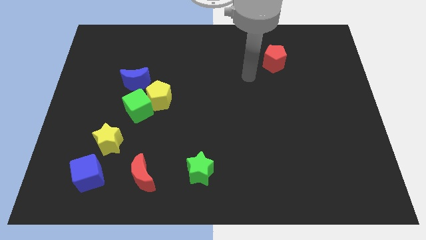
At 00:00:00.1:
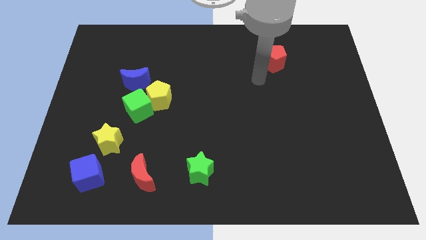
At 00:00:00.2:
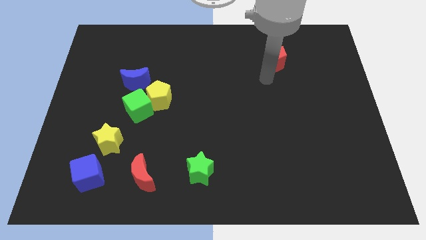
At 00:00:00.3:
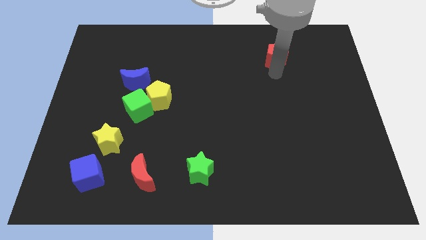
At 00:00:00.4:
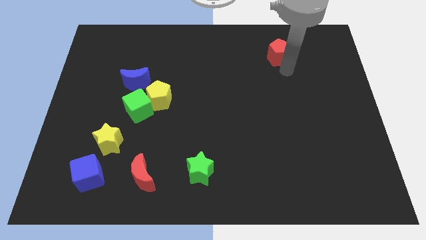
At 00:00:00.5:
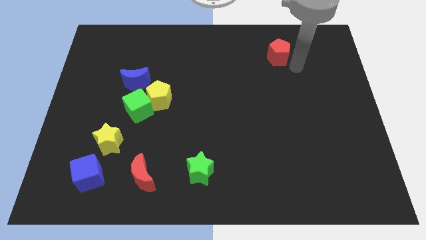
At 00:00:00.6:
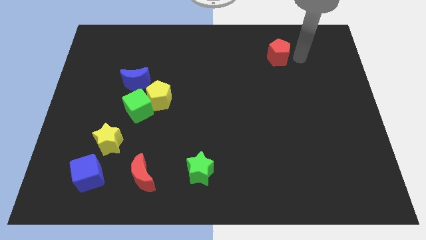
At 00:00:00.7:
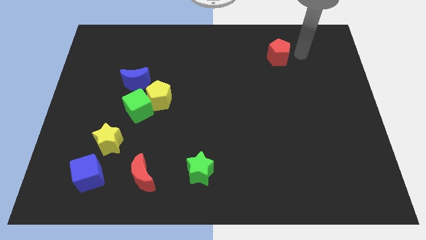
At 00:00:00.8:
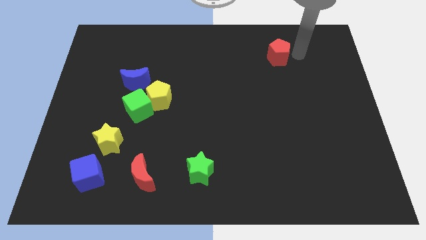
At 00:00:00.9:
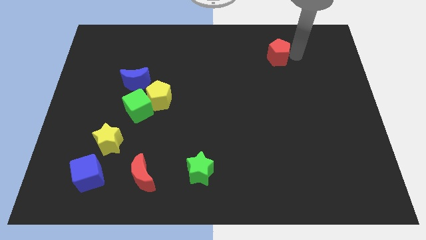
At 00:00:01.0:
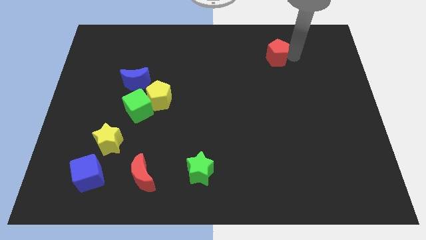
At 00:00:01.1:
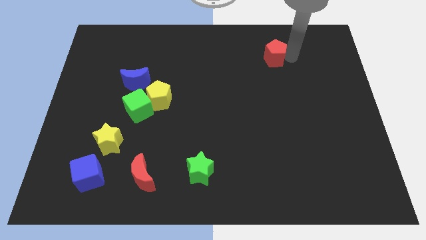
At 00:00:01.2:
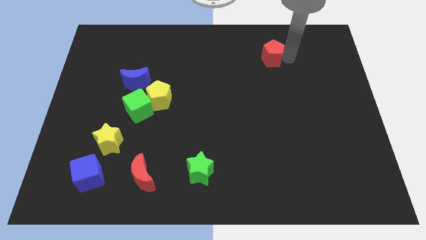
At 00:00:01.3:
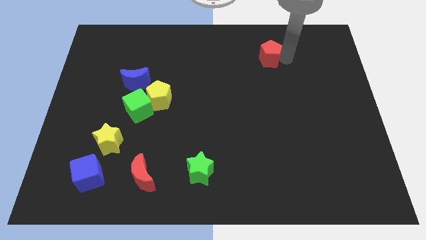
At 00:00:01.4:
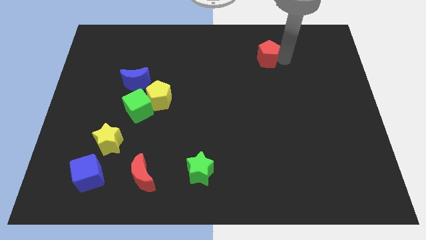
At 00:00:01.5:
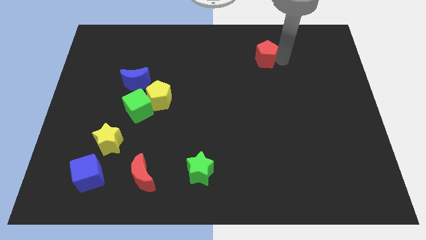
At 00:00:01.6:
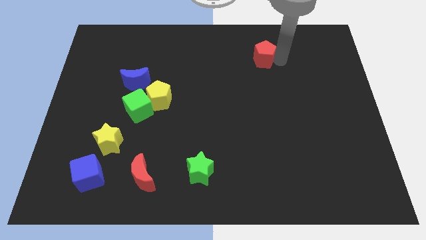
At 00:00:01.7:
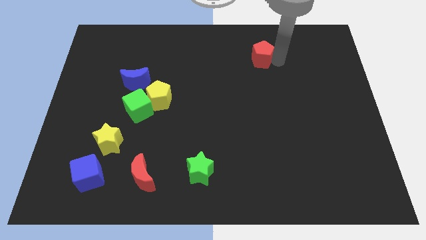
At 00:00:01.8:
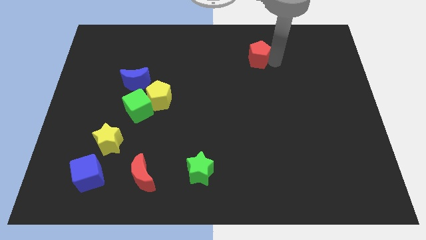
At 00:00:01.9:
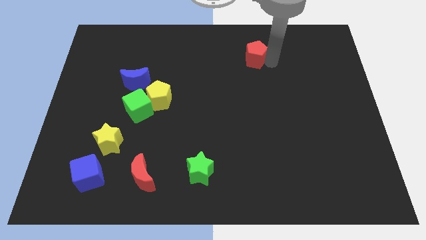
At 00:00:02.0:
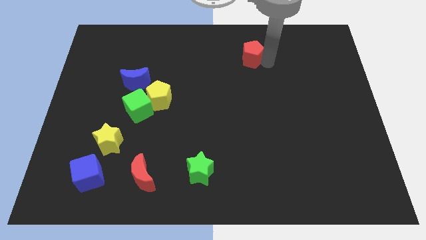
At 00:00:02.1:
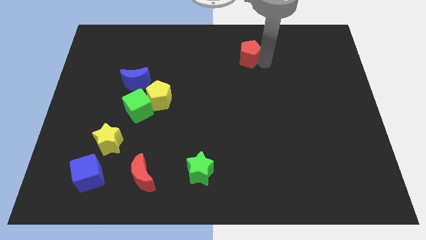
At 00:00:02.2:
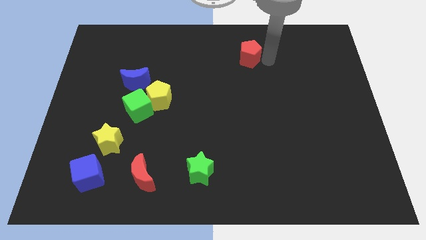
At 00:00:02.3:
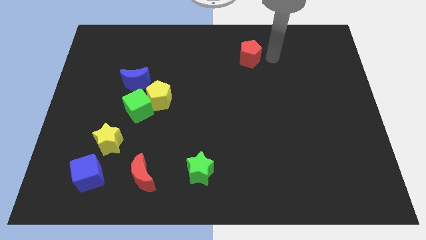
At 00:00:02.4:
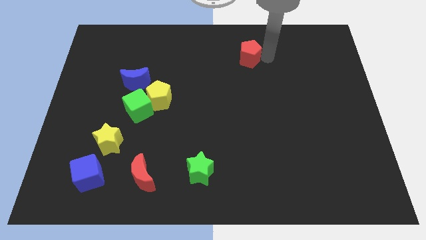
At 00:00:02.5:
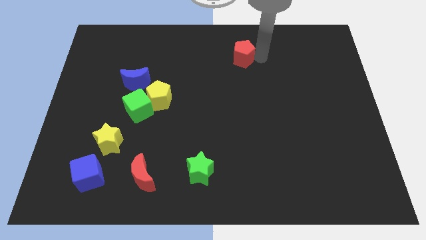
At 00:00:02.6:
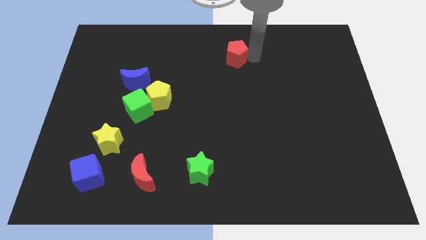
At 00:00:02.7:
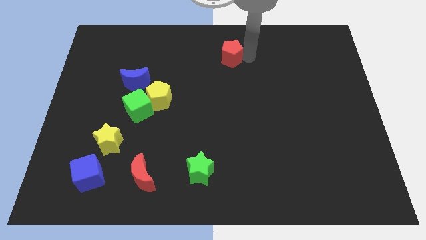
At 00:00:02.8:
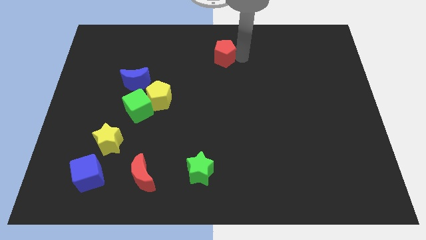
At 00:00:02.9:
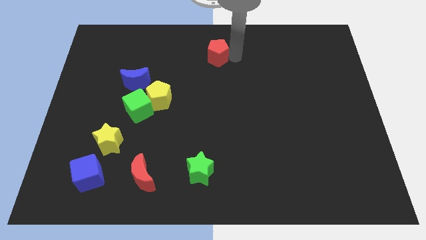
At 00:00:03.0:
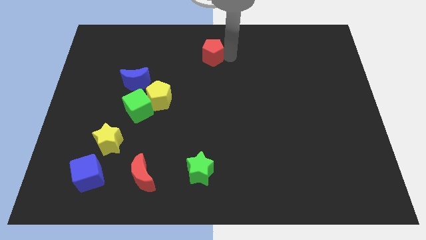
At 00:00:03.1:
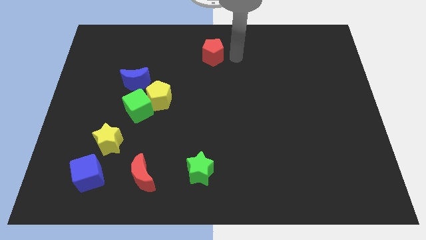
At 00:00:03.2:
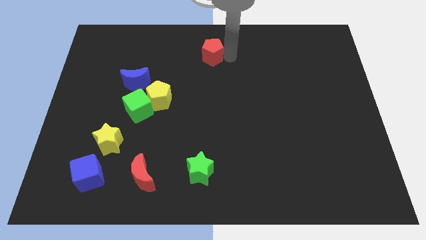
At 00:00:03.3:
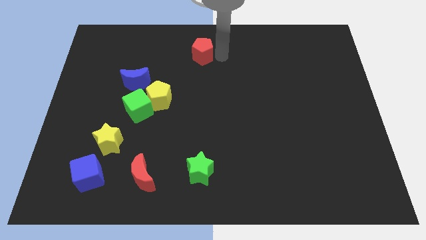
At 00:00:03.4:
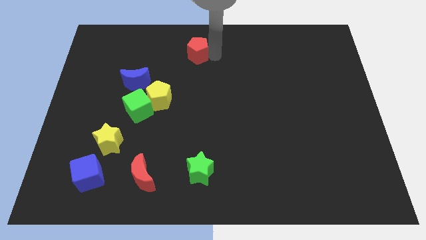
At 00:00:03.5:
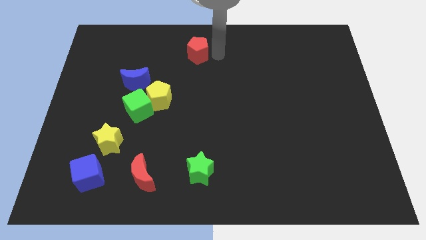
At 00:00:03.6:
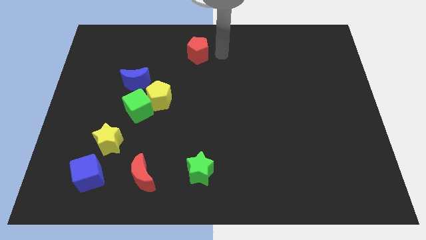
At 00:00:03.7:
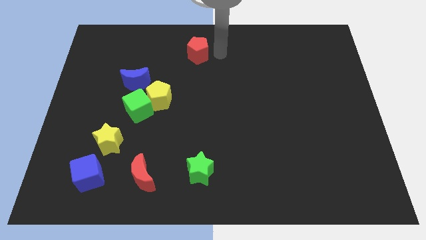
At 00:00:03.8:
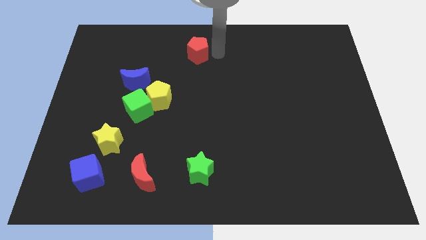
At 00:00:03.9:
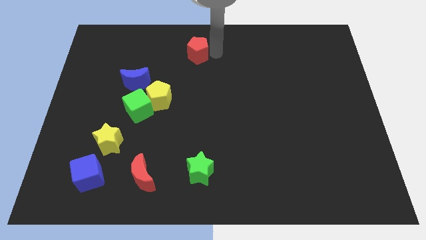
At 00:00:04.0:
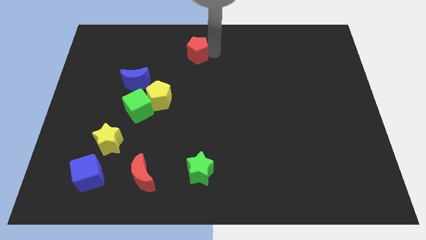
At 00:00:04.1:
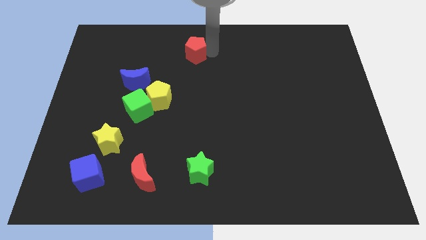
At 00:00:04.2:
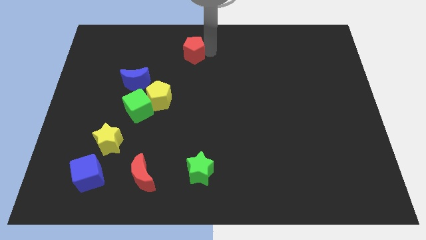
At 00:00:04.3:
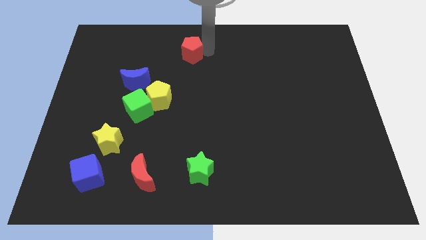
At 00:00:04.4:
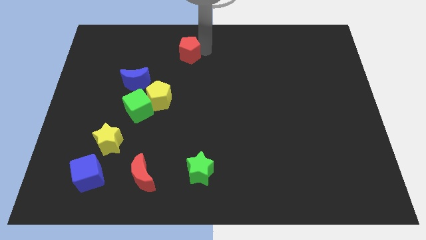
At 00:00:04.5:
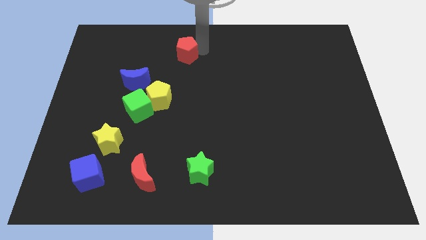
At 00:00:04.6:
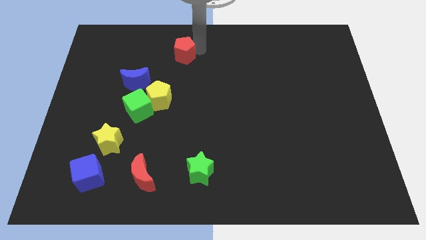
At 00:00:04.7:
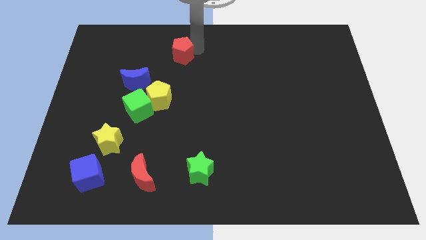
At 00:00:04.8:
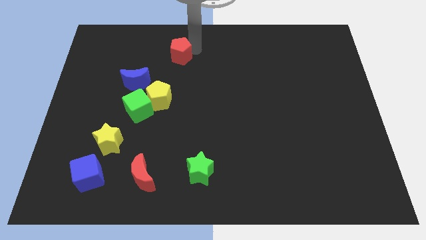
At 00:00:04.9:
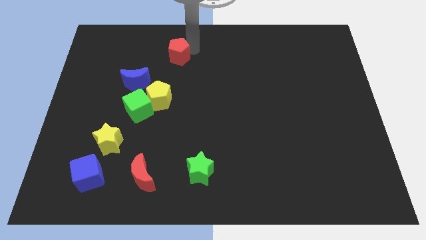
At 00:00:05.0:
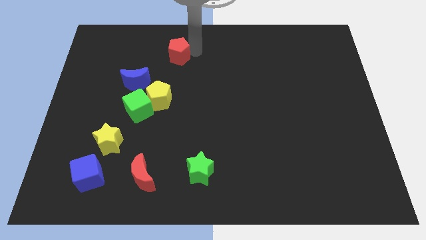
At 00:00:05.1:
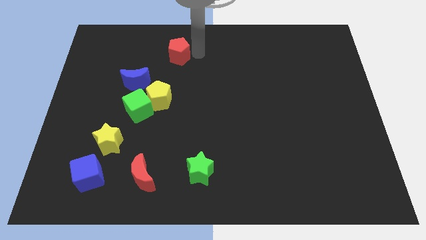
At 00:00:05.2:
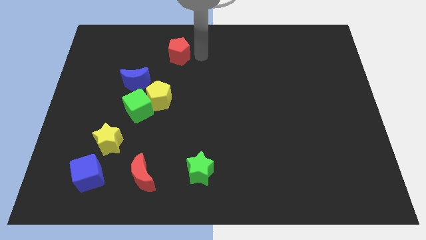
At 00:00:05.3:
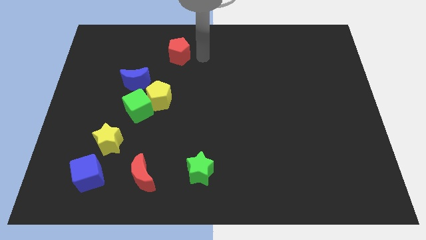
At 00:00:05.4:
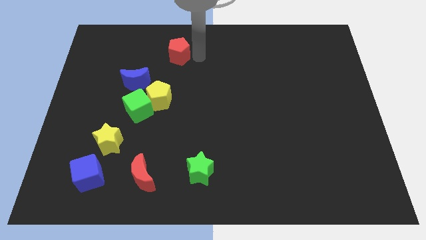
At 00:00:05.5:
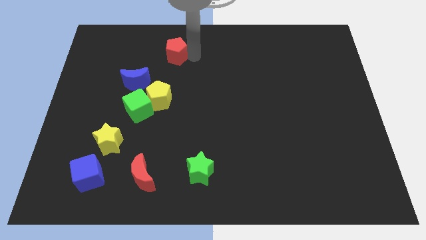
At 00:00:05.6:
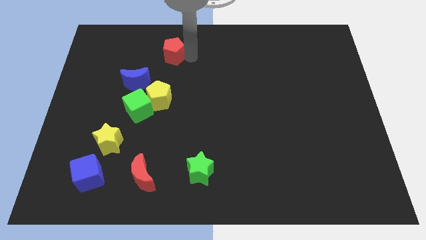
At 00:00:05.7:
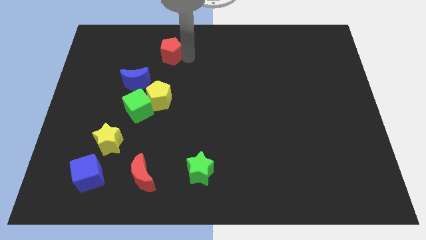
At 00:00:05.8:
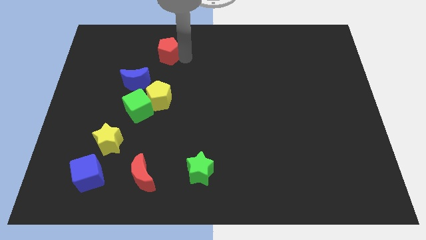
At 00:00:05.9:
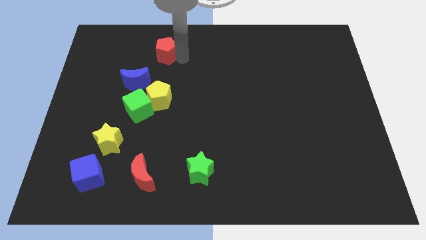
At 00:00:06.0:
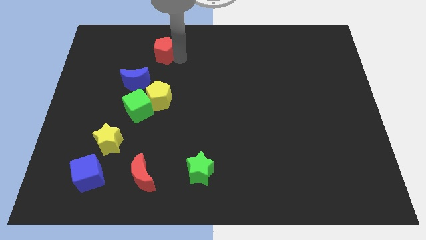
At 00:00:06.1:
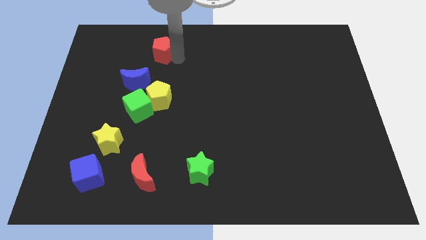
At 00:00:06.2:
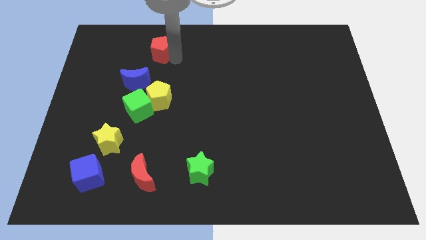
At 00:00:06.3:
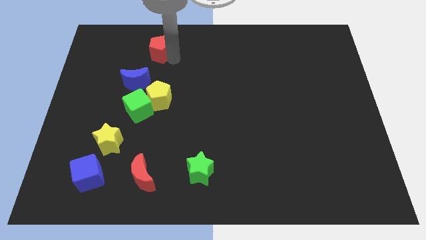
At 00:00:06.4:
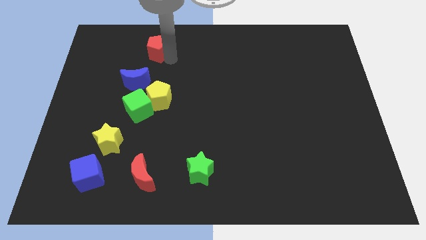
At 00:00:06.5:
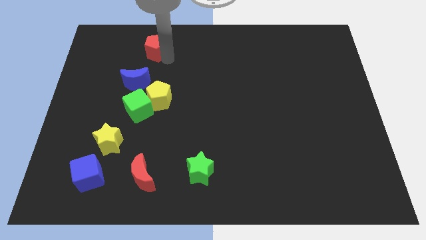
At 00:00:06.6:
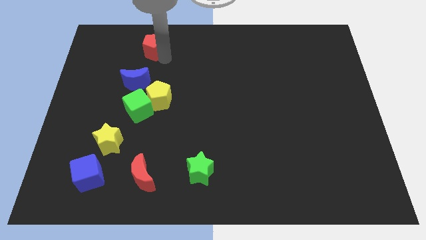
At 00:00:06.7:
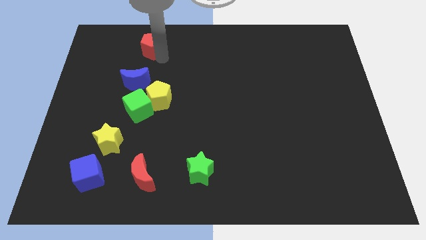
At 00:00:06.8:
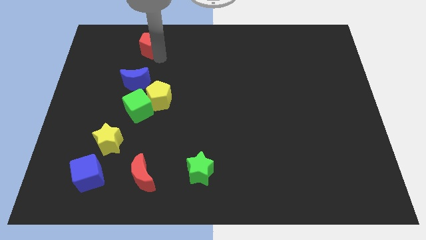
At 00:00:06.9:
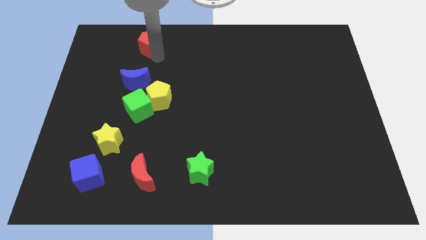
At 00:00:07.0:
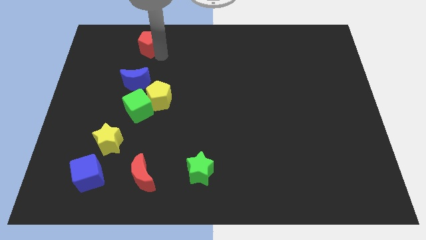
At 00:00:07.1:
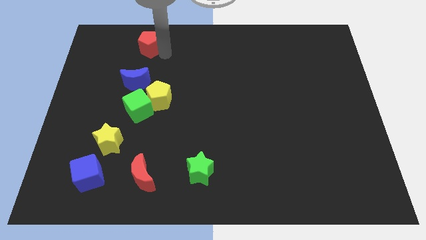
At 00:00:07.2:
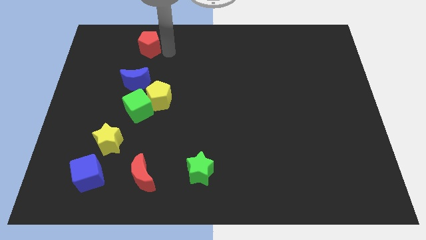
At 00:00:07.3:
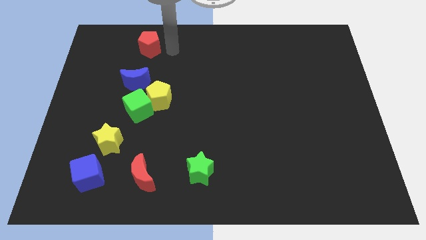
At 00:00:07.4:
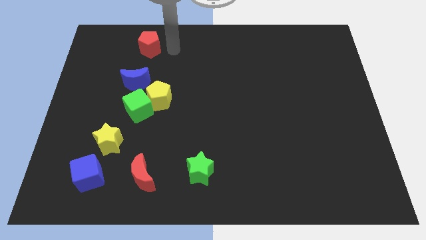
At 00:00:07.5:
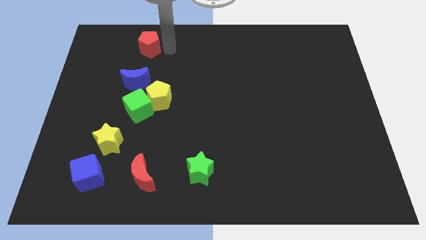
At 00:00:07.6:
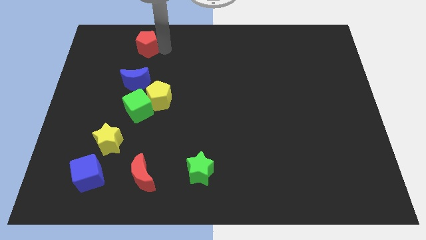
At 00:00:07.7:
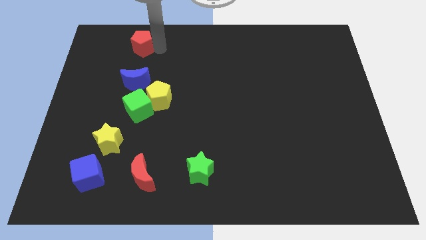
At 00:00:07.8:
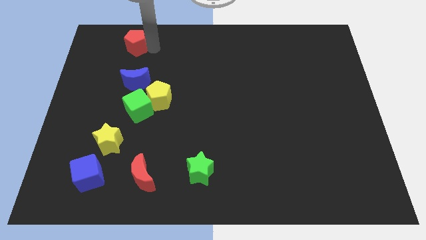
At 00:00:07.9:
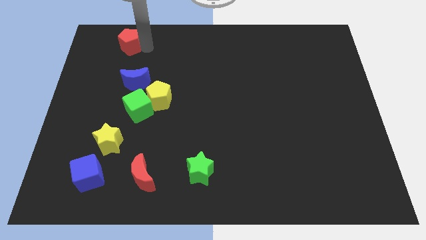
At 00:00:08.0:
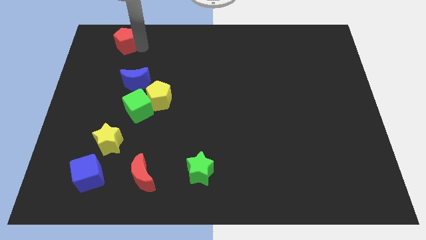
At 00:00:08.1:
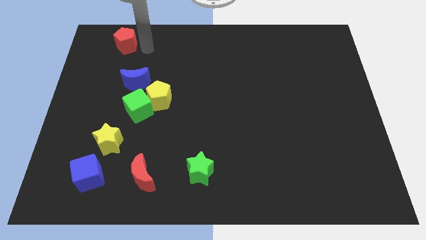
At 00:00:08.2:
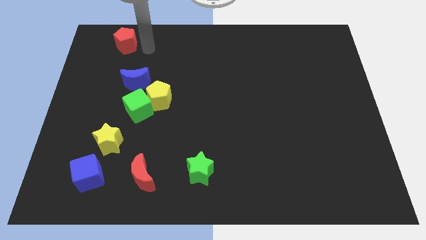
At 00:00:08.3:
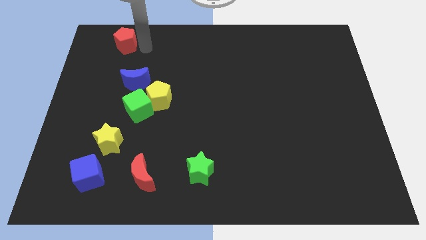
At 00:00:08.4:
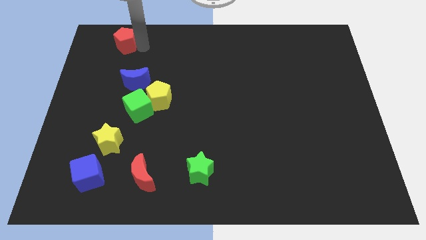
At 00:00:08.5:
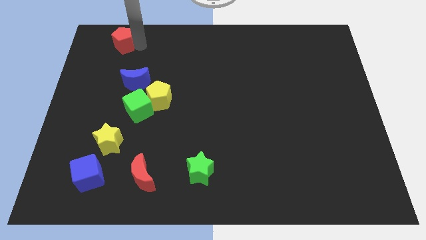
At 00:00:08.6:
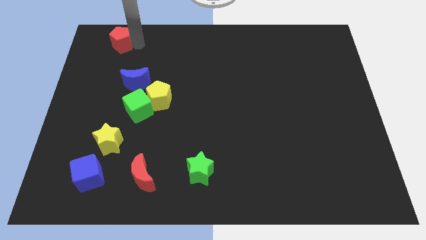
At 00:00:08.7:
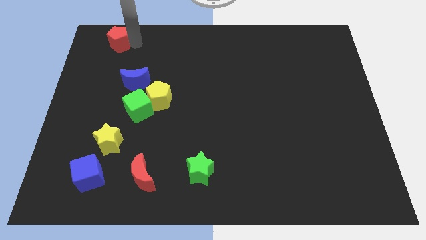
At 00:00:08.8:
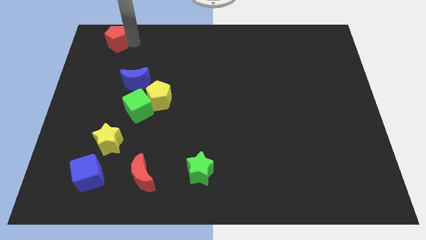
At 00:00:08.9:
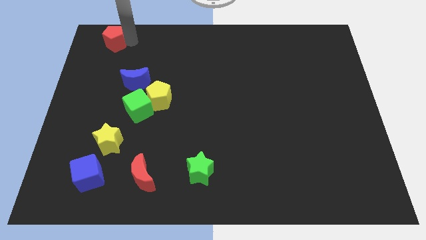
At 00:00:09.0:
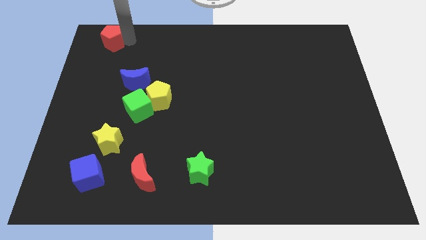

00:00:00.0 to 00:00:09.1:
put the red pentagon to the upper left corner
